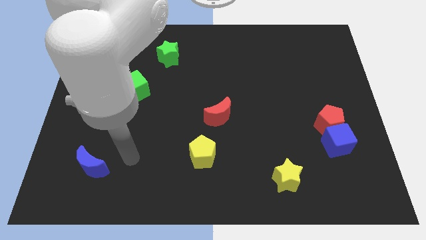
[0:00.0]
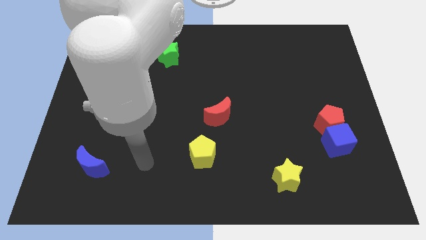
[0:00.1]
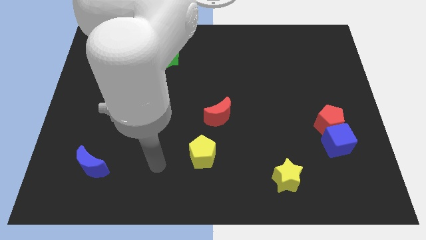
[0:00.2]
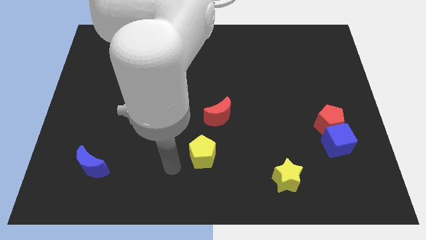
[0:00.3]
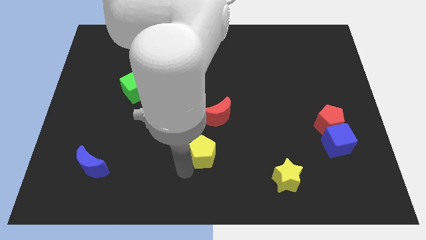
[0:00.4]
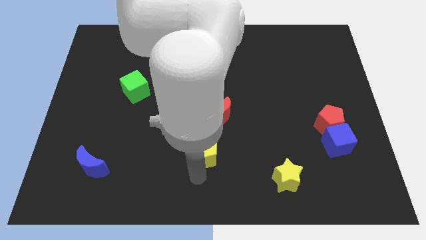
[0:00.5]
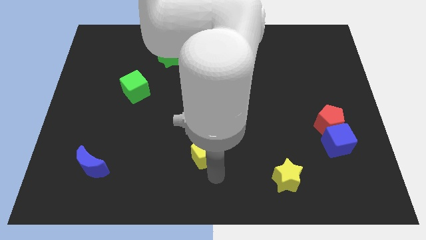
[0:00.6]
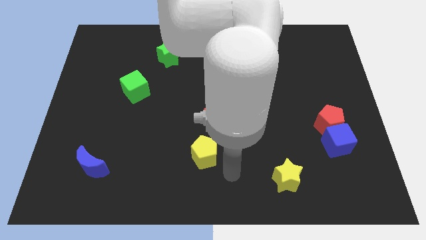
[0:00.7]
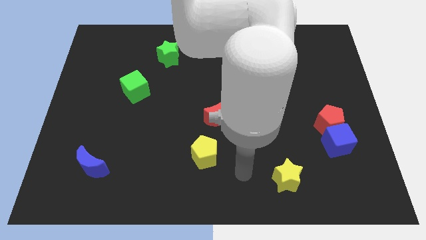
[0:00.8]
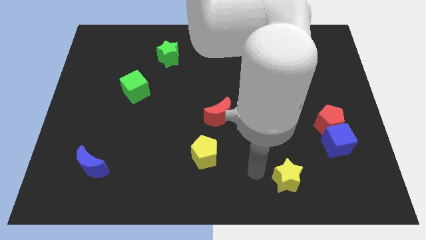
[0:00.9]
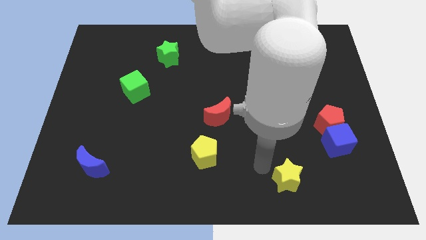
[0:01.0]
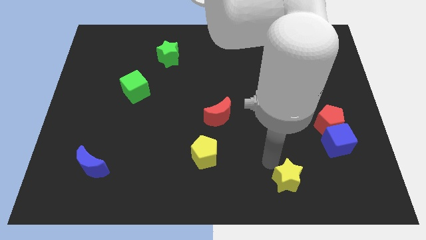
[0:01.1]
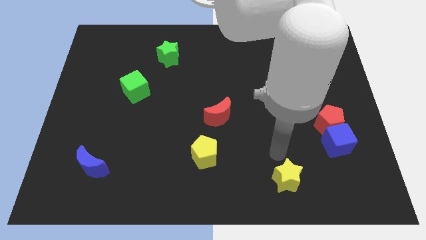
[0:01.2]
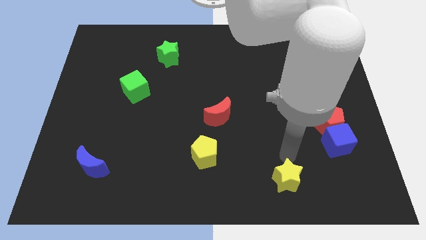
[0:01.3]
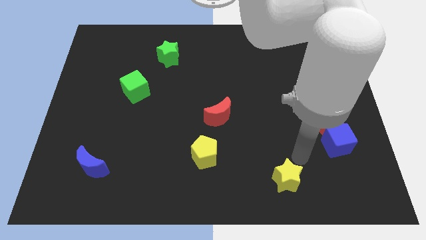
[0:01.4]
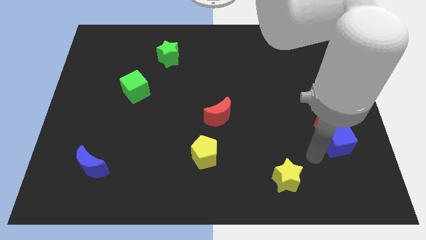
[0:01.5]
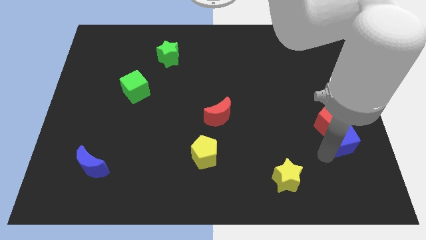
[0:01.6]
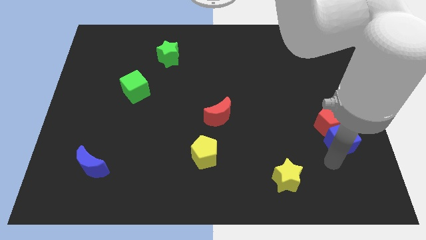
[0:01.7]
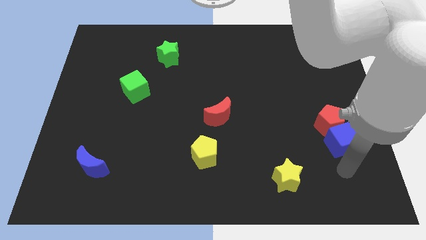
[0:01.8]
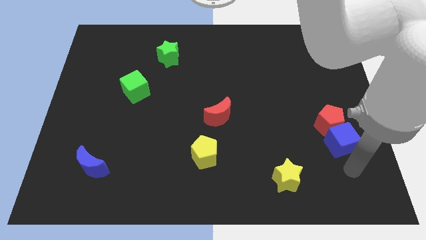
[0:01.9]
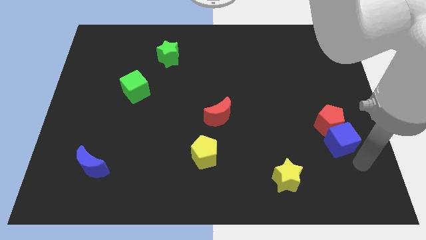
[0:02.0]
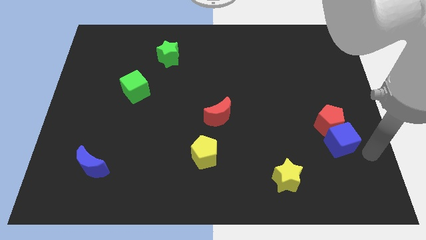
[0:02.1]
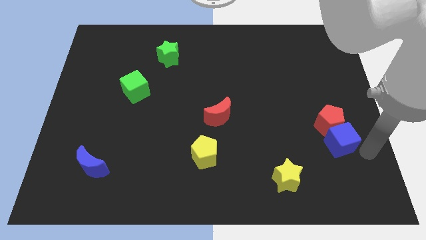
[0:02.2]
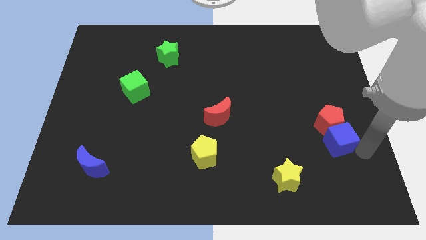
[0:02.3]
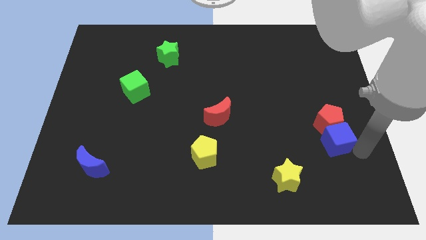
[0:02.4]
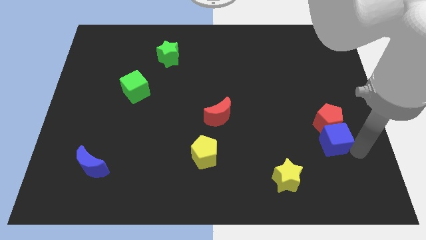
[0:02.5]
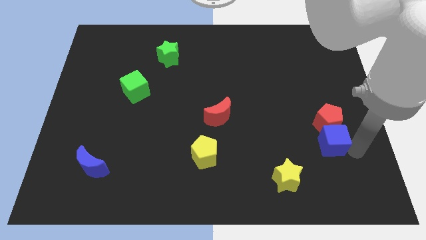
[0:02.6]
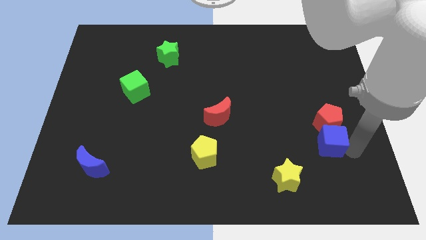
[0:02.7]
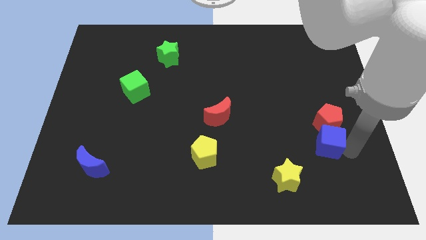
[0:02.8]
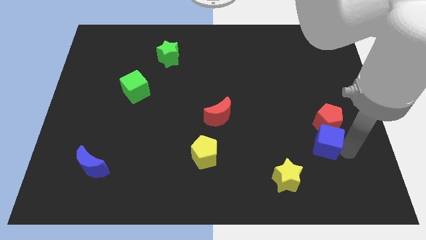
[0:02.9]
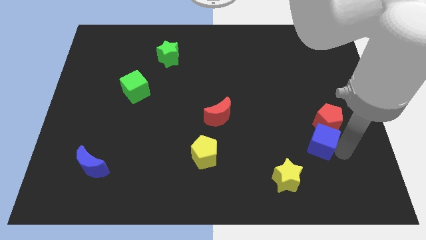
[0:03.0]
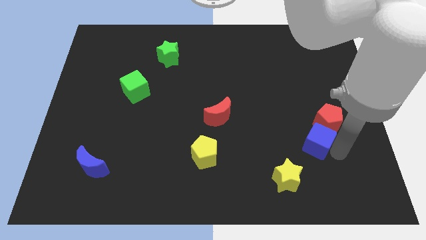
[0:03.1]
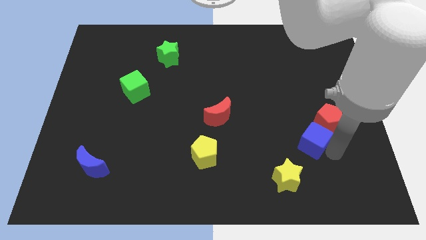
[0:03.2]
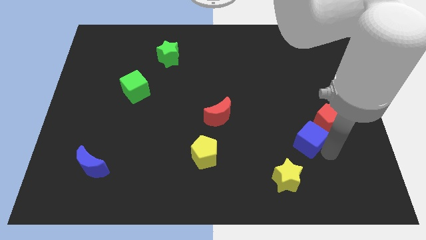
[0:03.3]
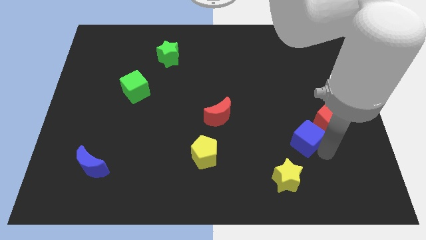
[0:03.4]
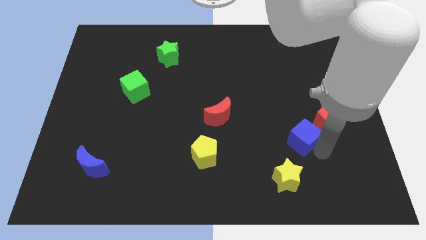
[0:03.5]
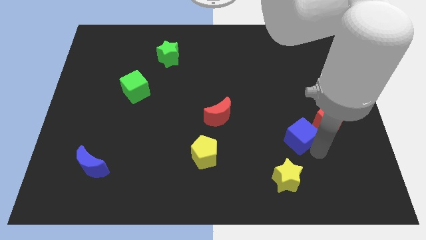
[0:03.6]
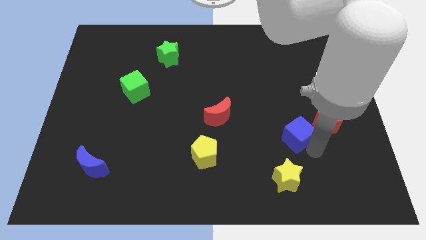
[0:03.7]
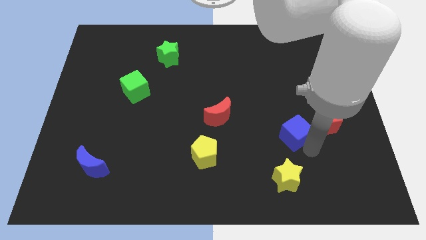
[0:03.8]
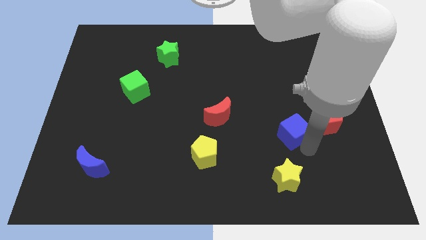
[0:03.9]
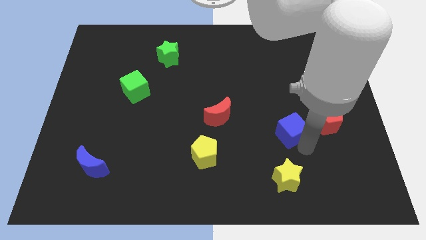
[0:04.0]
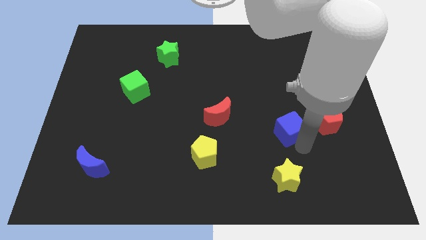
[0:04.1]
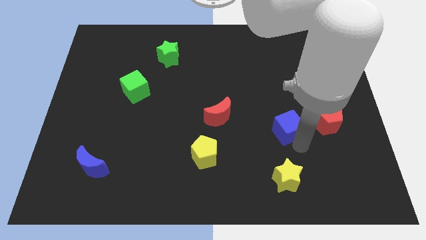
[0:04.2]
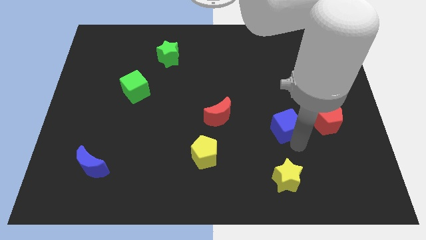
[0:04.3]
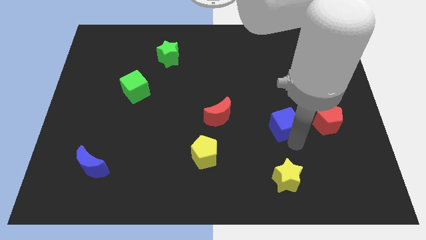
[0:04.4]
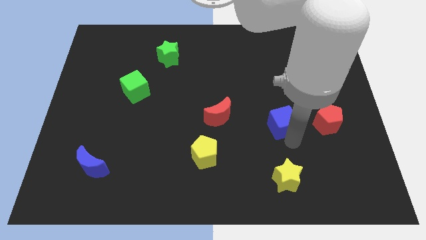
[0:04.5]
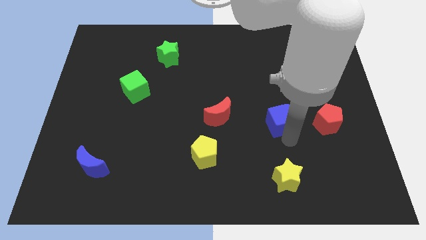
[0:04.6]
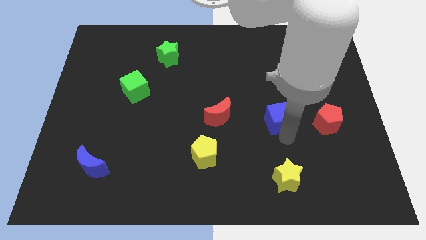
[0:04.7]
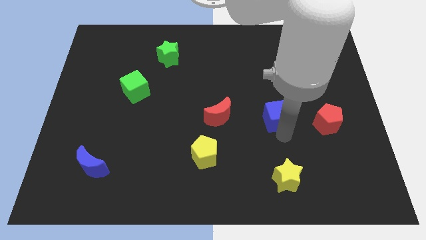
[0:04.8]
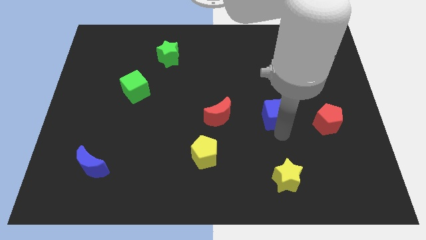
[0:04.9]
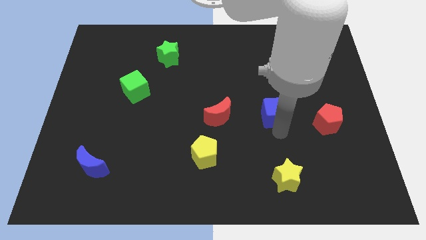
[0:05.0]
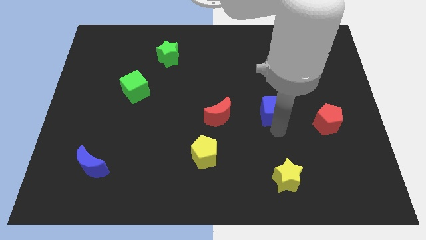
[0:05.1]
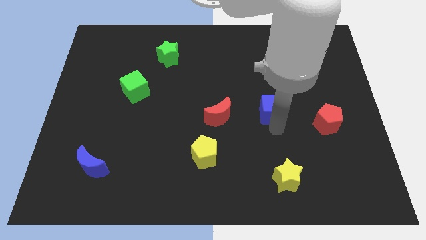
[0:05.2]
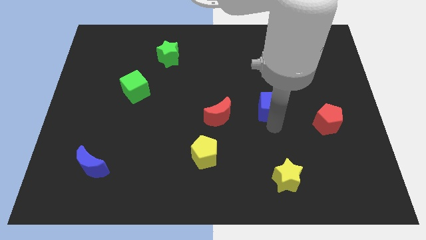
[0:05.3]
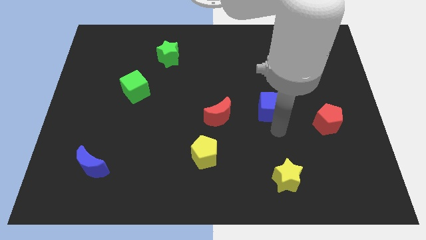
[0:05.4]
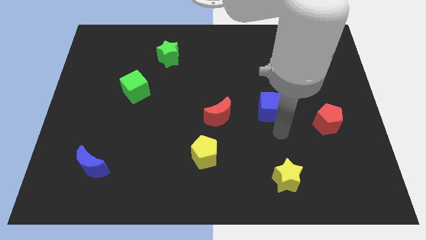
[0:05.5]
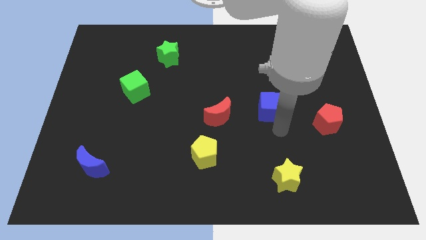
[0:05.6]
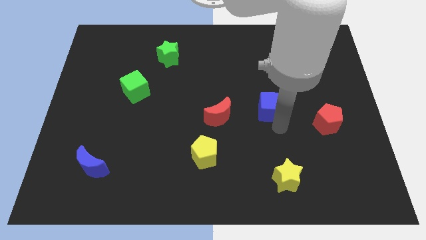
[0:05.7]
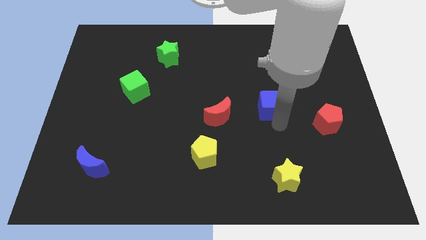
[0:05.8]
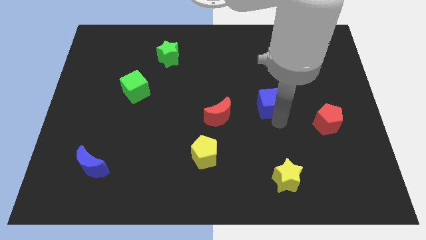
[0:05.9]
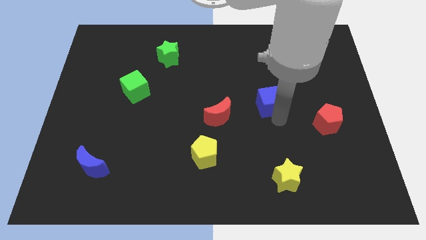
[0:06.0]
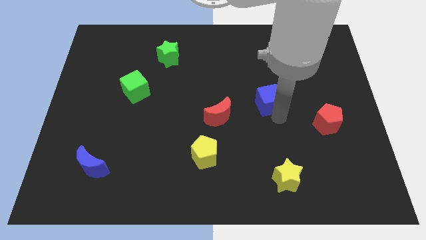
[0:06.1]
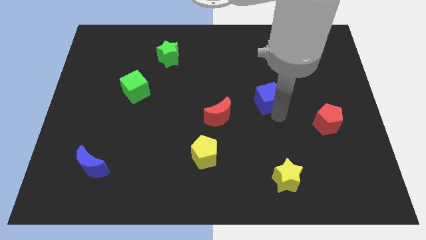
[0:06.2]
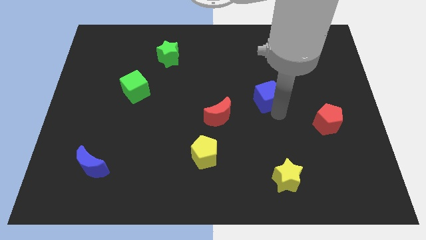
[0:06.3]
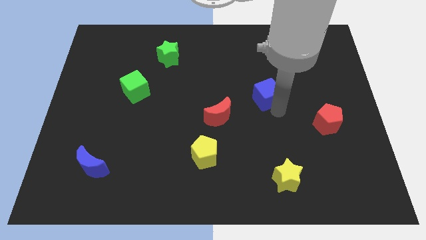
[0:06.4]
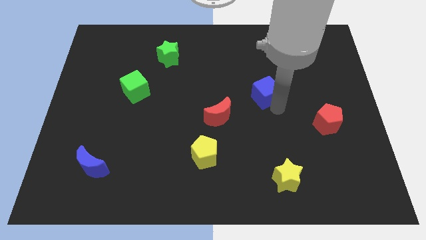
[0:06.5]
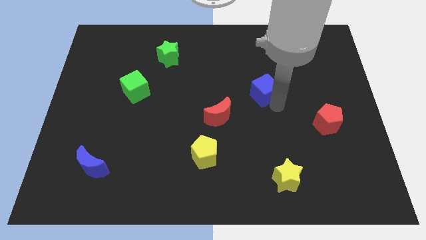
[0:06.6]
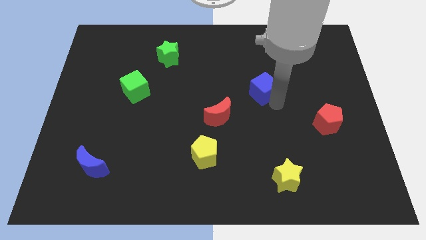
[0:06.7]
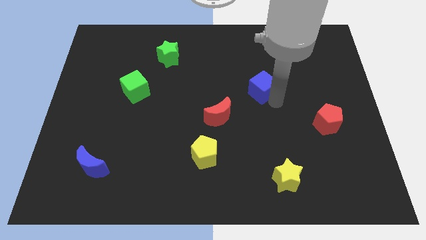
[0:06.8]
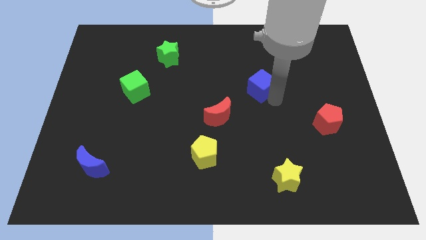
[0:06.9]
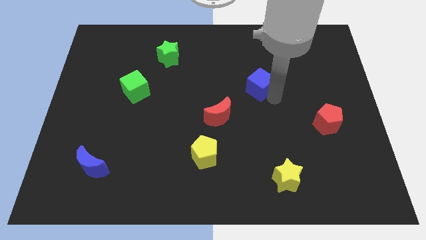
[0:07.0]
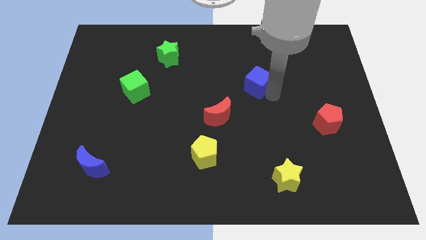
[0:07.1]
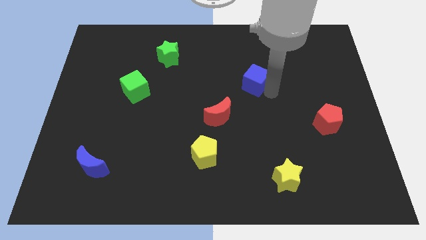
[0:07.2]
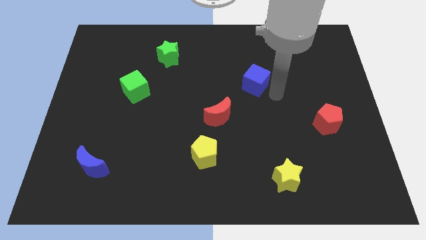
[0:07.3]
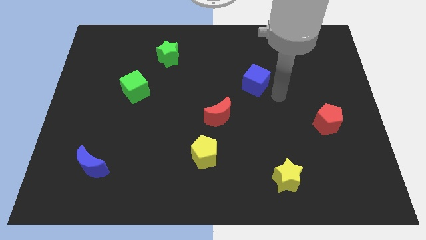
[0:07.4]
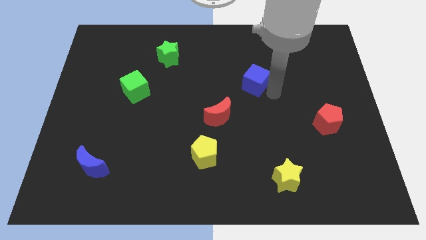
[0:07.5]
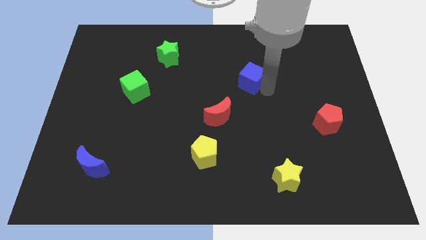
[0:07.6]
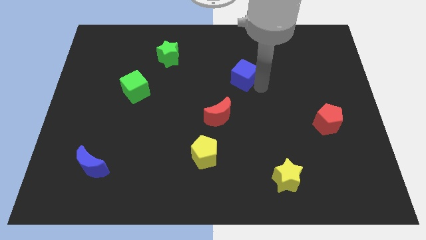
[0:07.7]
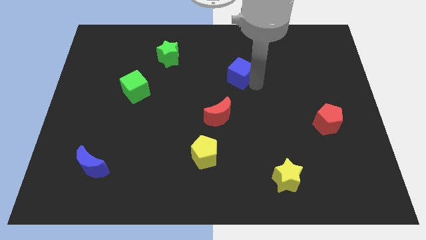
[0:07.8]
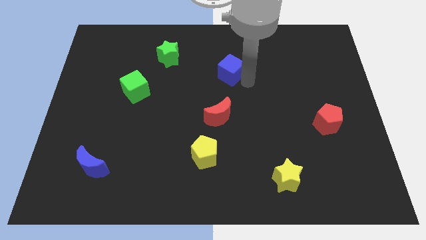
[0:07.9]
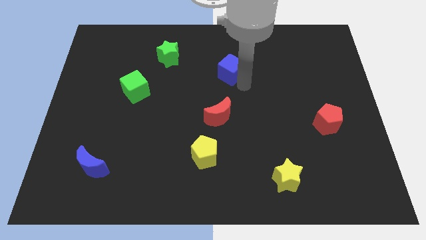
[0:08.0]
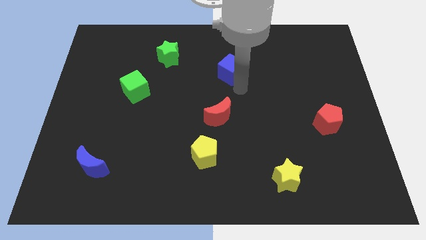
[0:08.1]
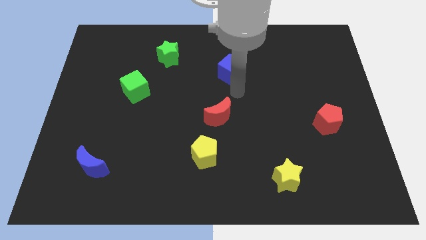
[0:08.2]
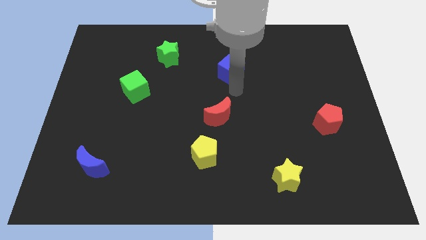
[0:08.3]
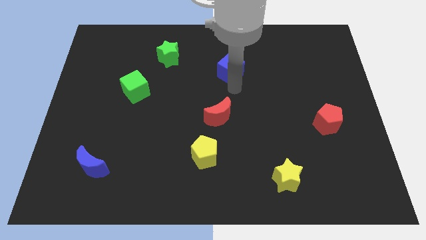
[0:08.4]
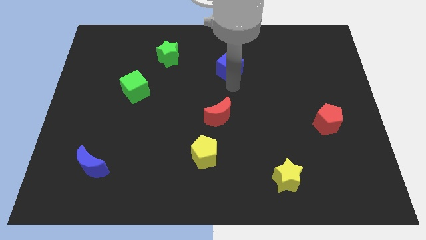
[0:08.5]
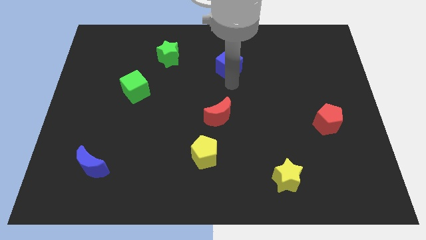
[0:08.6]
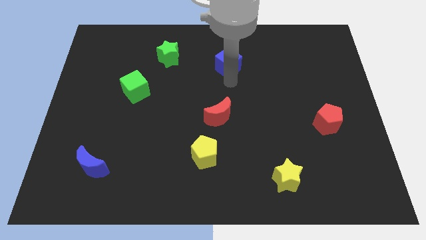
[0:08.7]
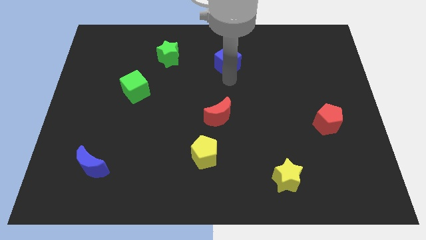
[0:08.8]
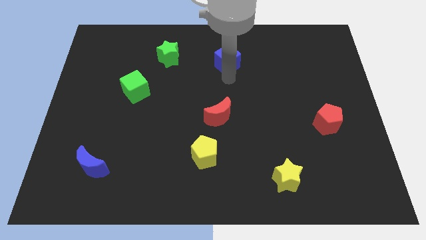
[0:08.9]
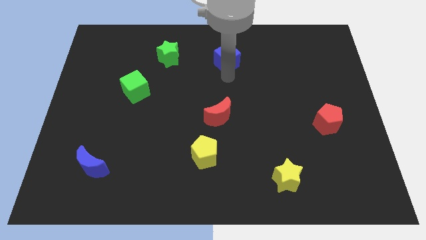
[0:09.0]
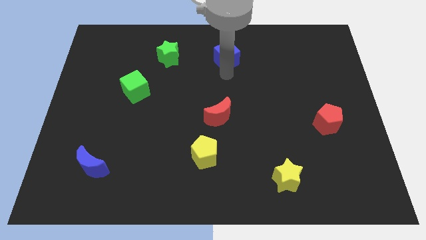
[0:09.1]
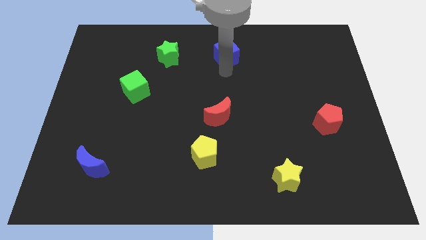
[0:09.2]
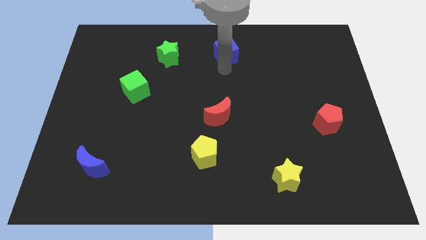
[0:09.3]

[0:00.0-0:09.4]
push the blue cube to the towards your base
